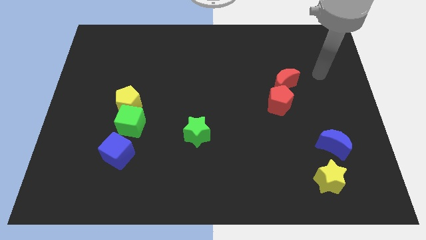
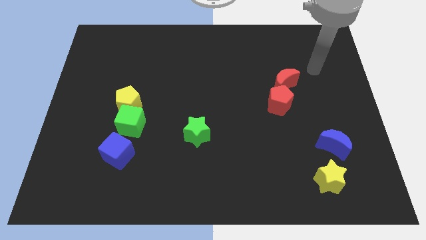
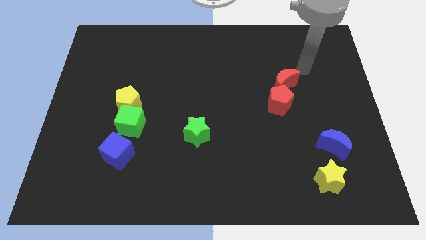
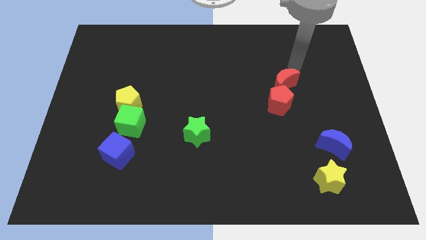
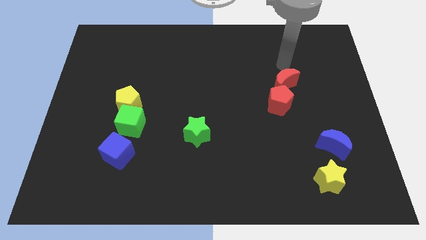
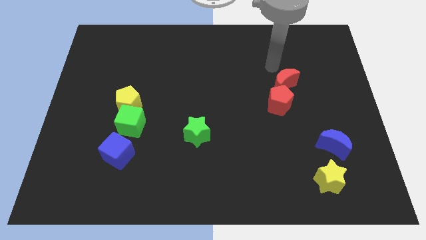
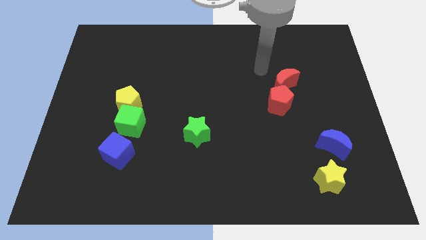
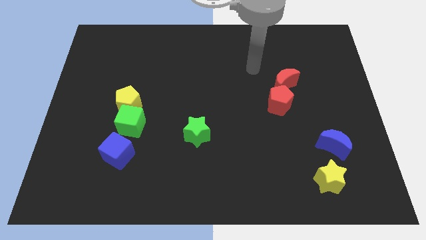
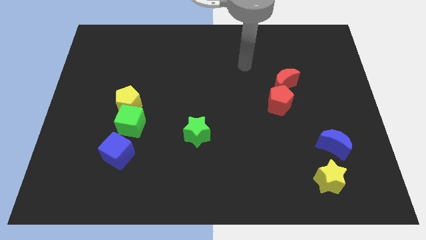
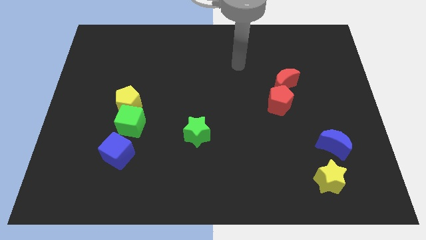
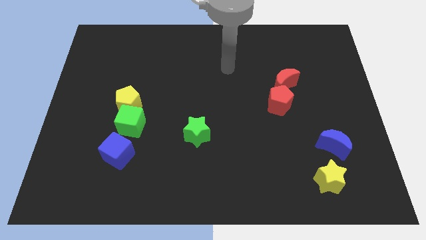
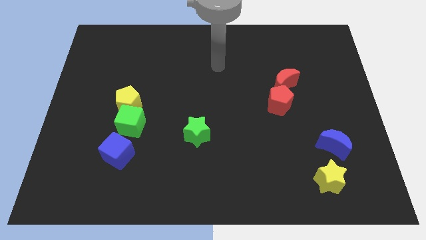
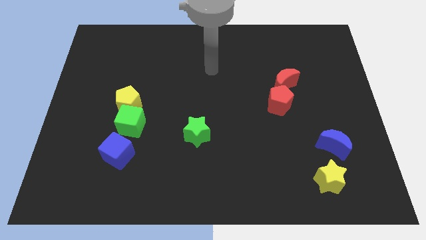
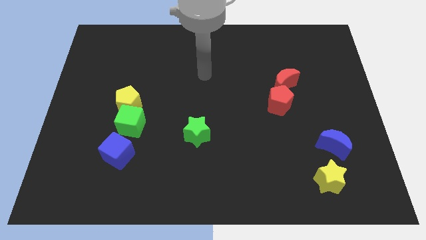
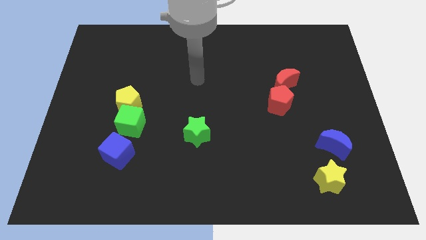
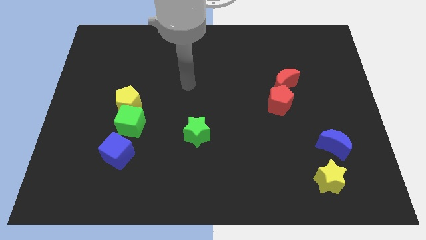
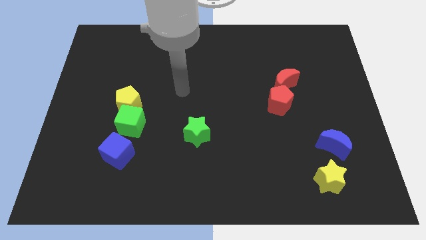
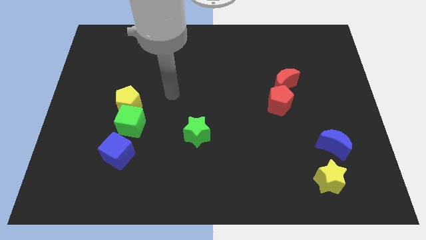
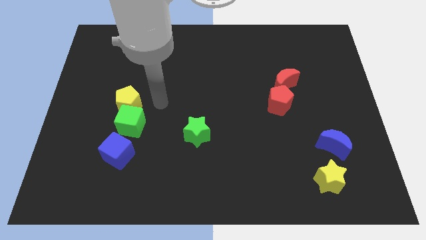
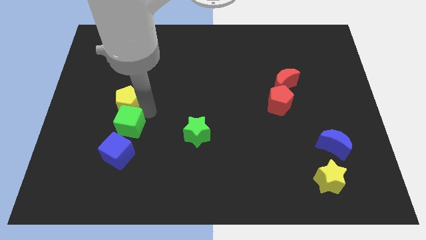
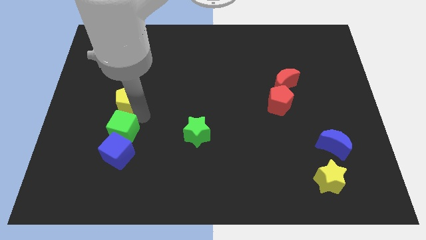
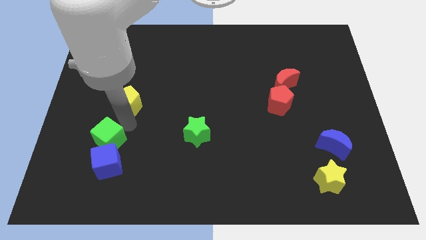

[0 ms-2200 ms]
separate the yellow pentagon from the green cube

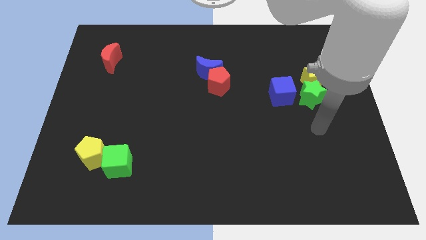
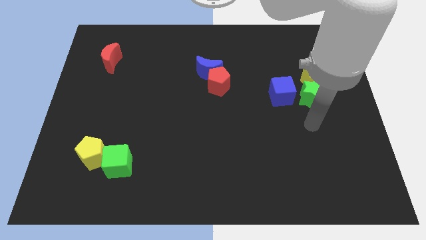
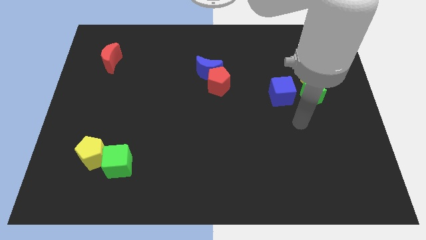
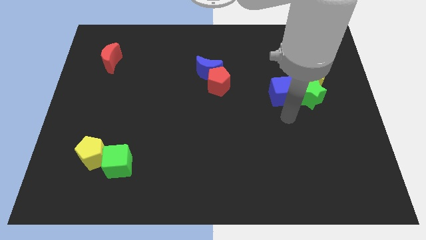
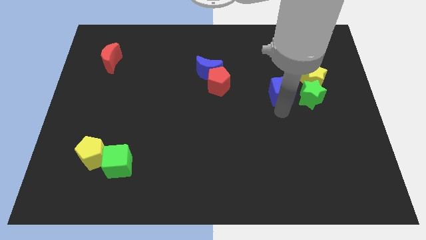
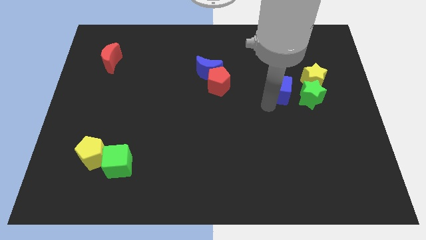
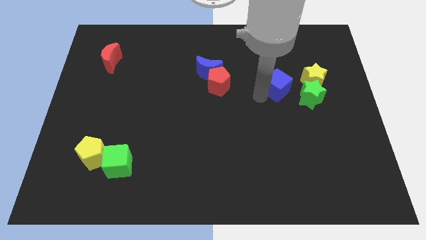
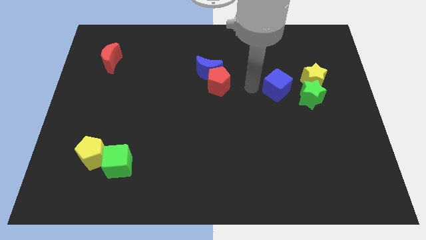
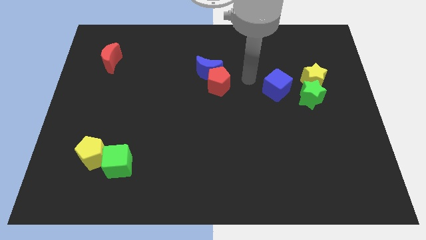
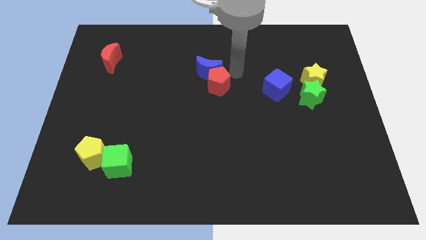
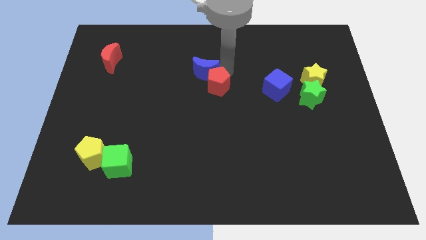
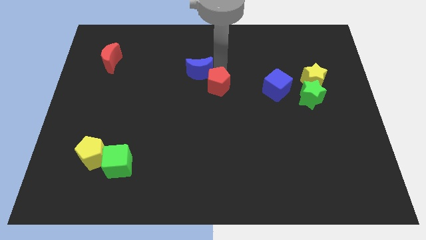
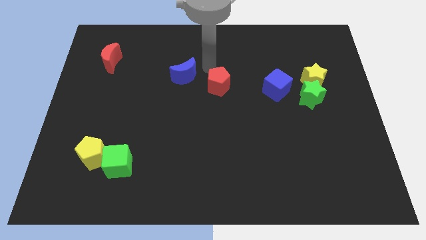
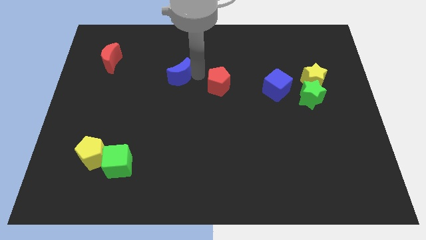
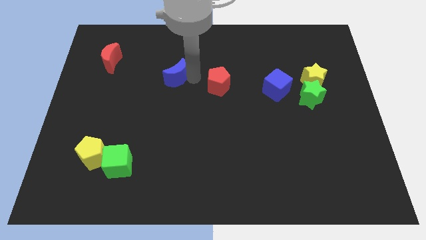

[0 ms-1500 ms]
pull the red pentagon apart from the blue moon

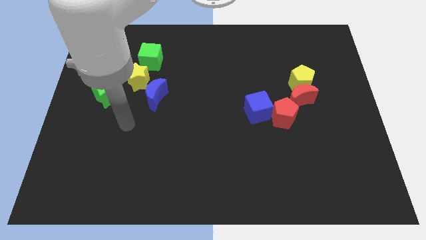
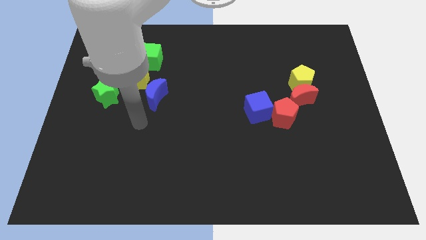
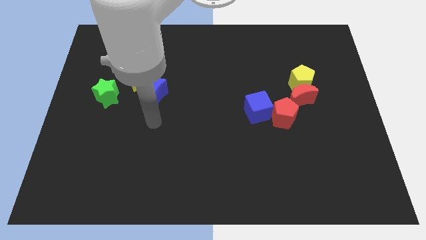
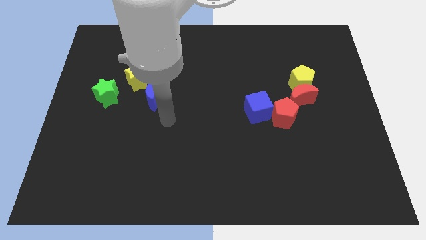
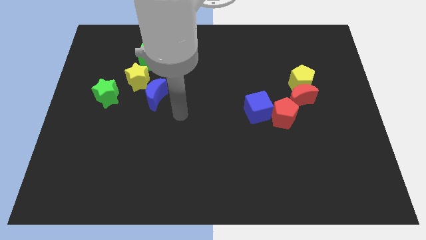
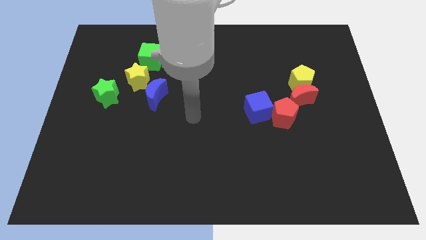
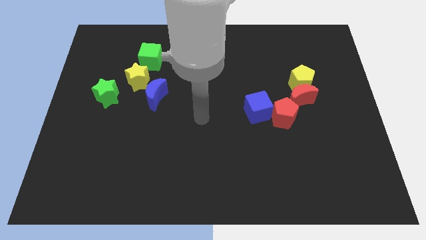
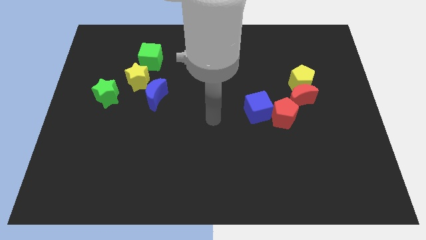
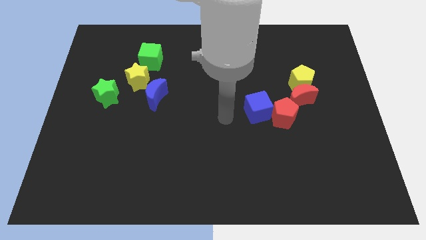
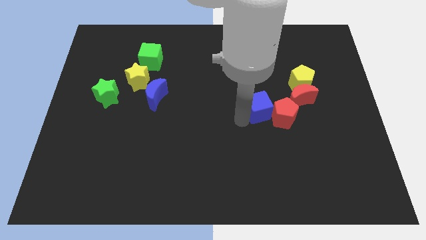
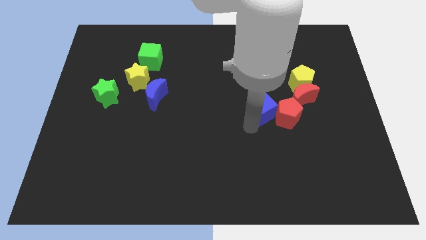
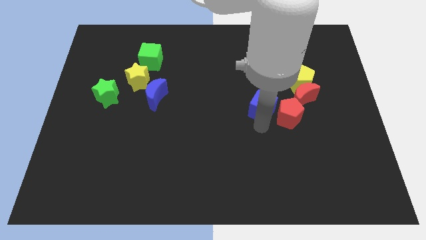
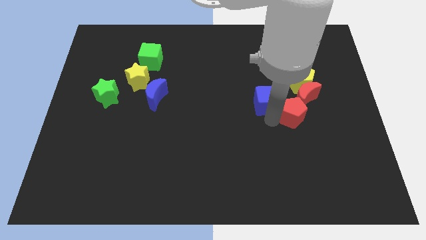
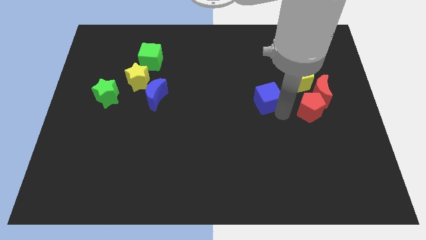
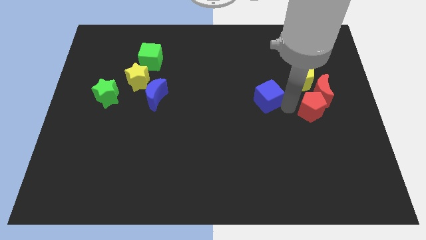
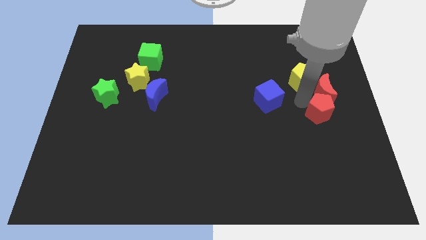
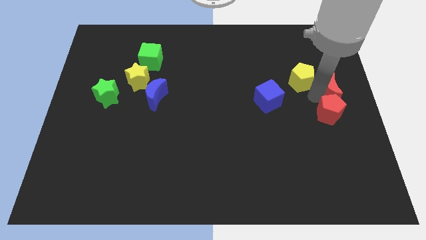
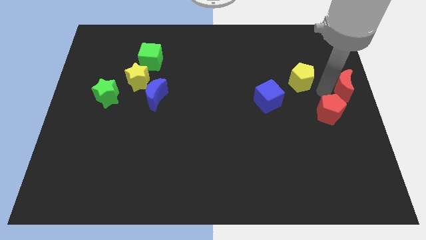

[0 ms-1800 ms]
pull the yellow pentagon apart from the red moon

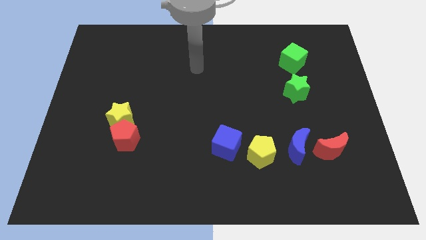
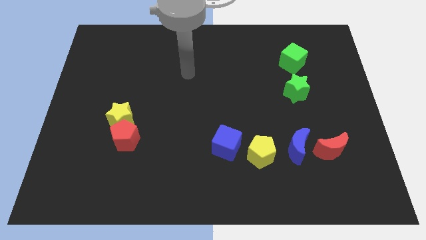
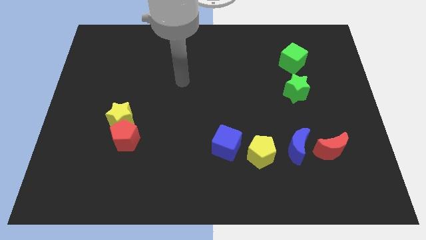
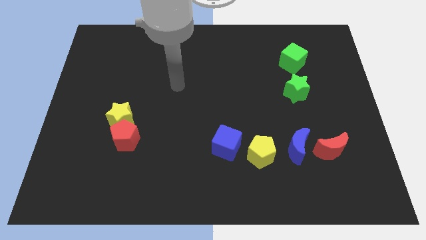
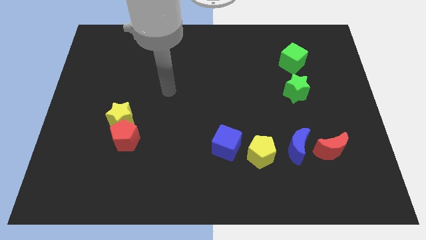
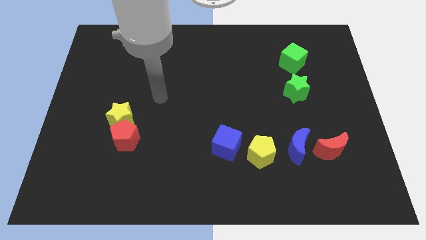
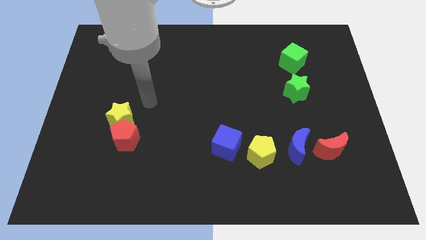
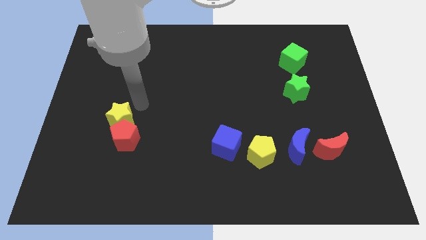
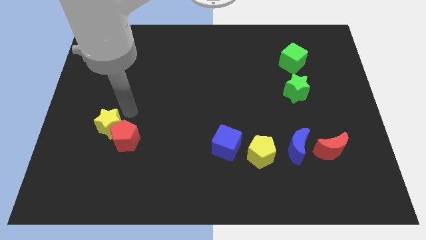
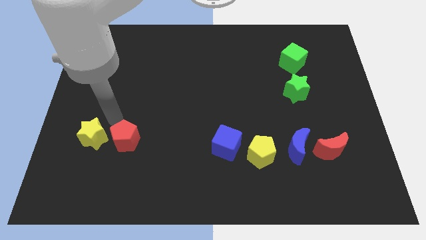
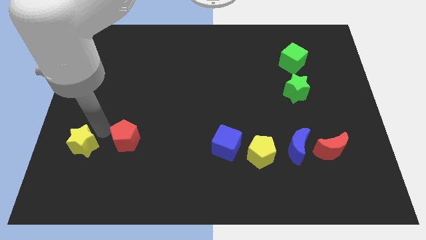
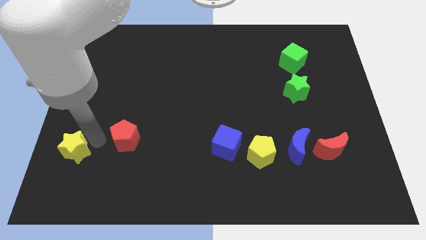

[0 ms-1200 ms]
move the red pentagon away from the yellow star

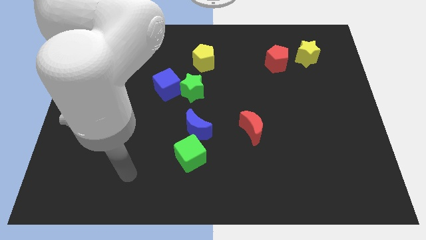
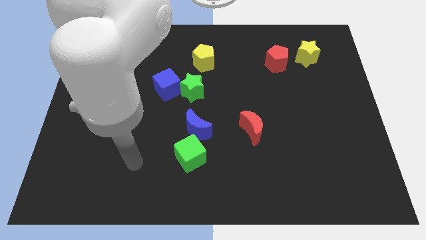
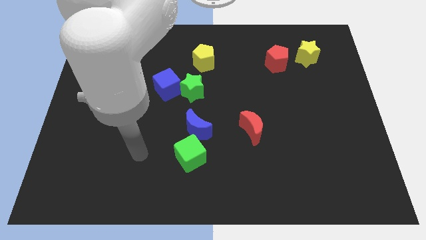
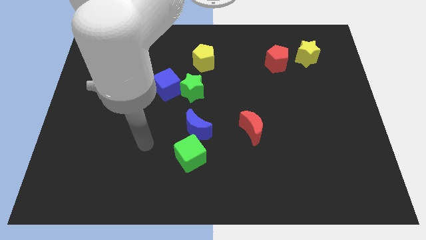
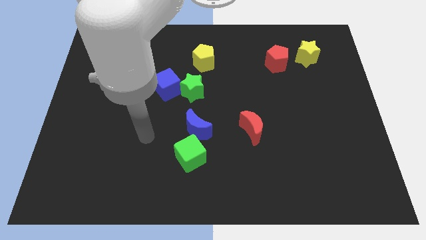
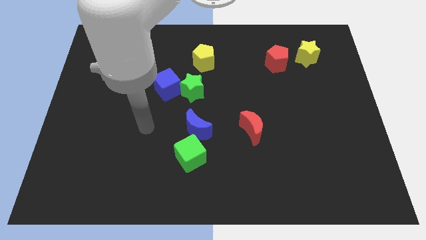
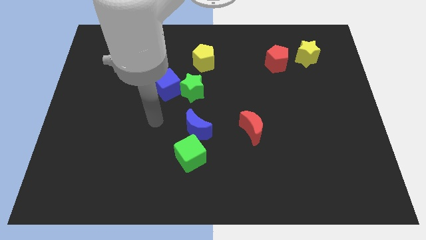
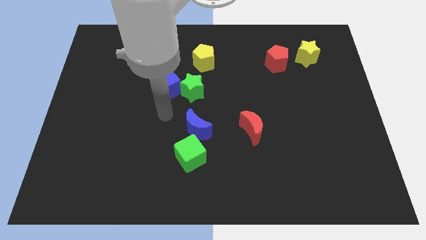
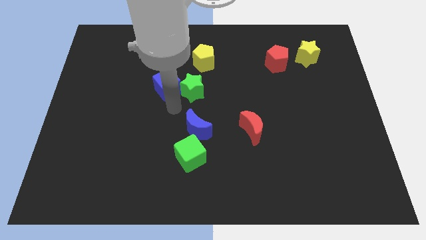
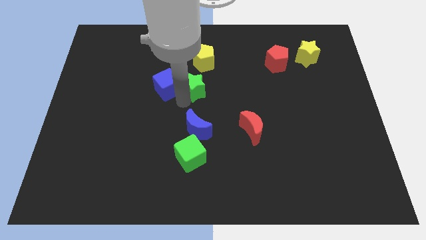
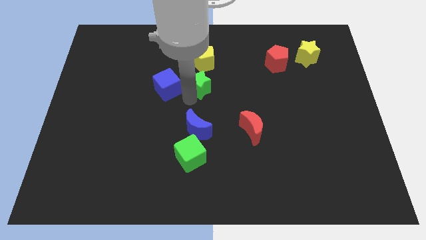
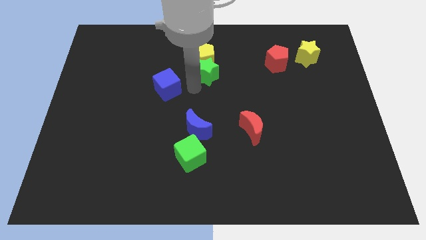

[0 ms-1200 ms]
separate the blue cube from the green star

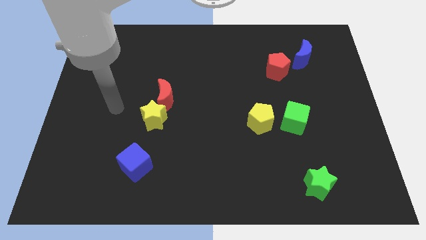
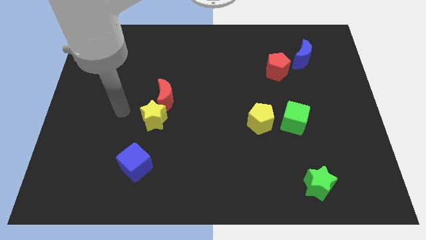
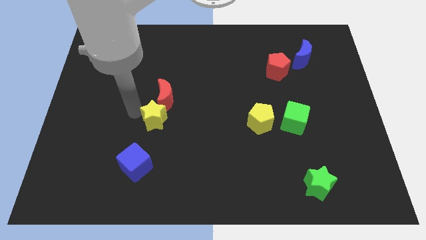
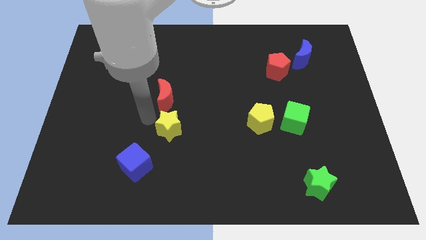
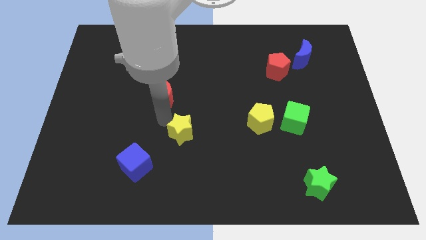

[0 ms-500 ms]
move the red moon away from the yellow star

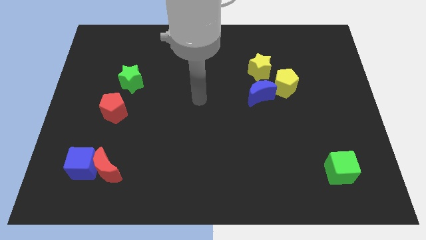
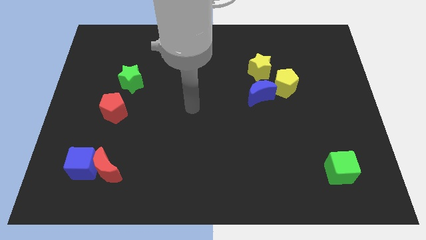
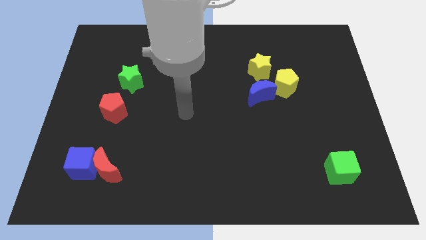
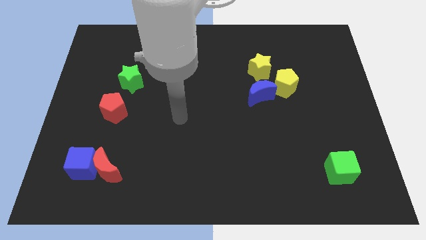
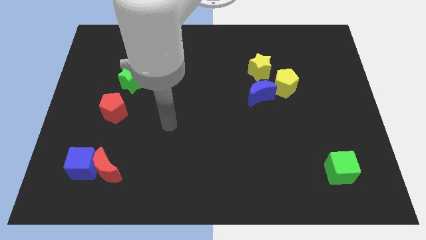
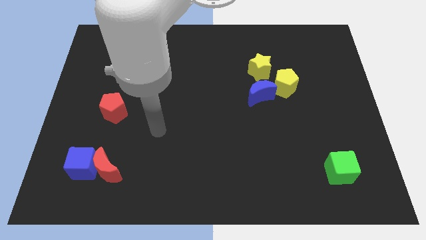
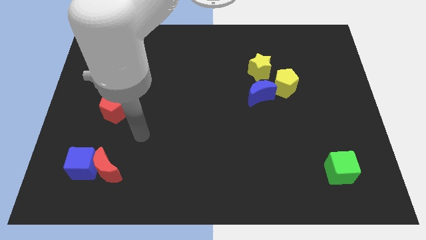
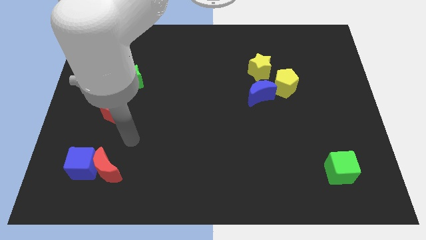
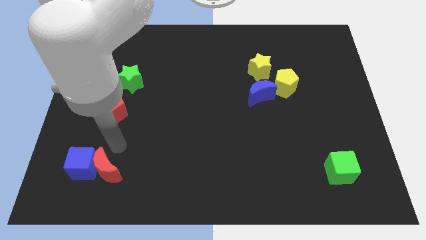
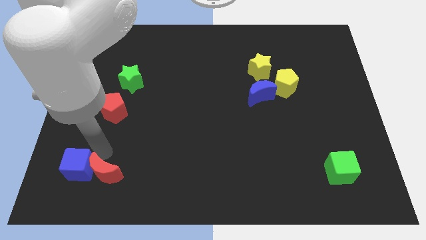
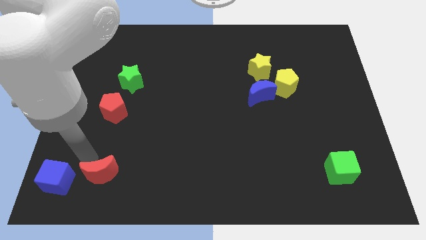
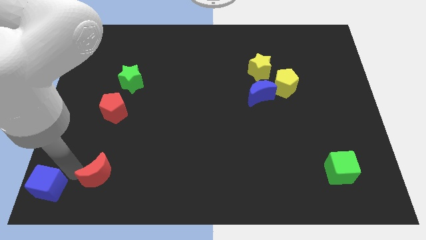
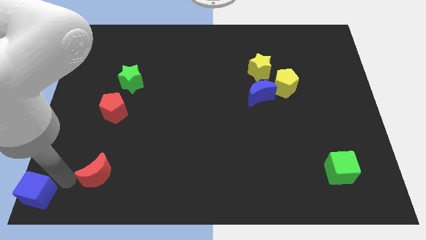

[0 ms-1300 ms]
separate the red moon from the blue cube
